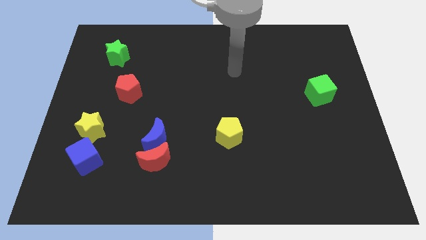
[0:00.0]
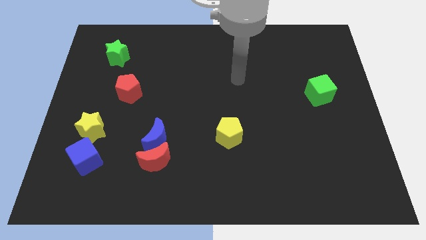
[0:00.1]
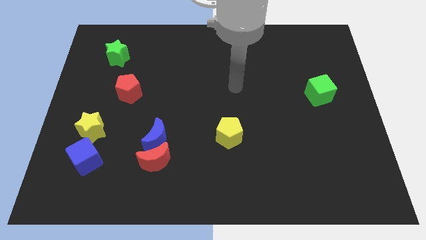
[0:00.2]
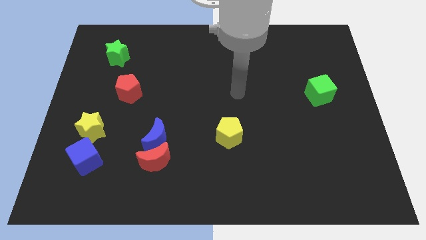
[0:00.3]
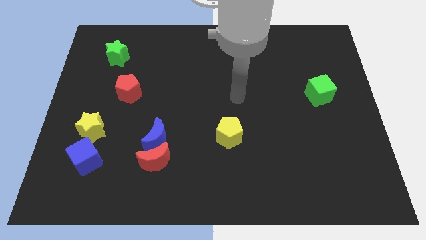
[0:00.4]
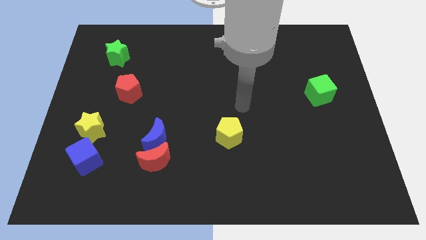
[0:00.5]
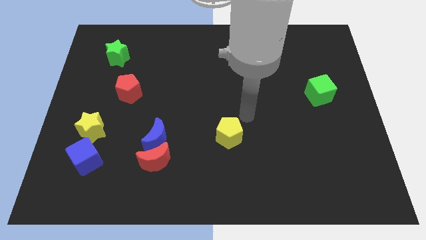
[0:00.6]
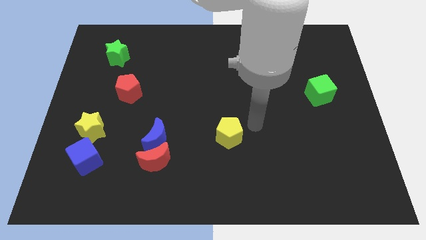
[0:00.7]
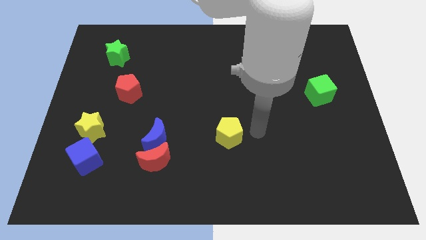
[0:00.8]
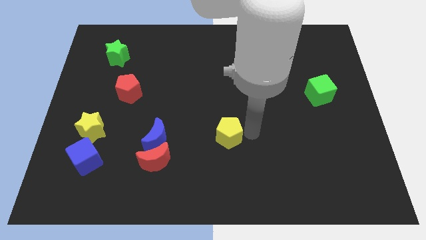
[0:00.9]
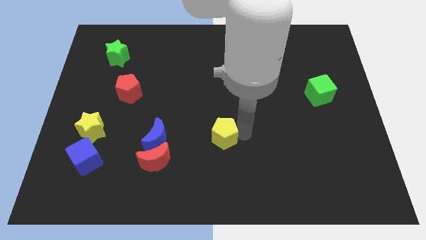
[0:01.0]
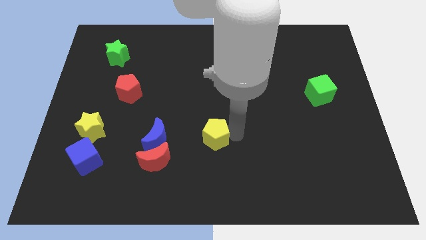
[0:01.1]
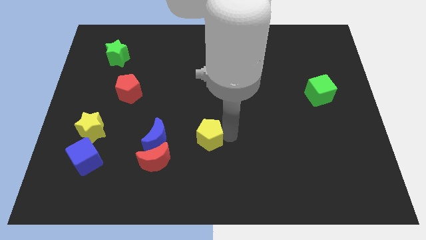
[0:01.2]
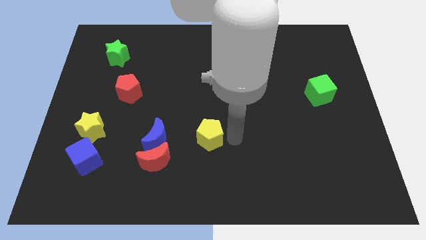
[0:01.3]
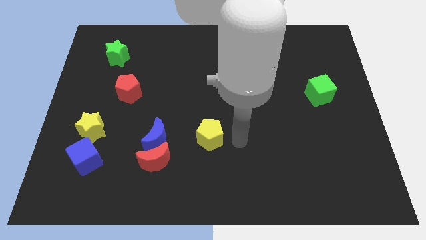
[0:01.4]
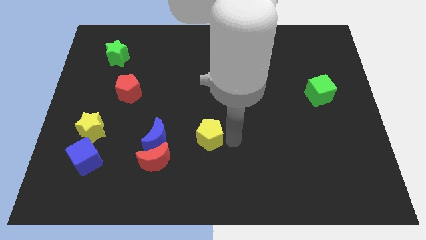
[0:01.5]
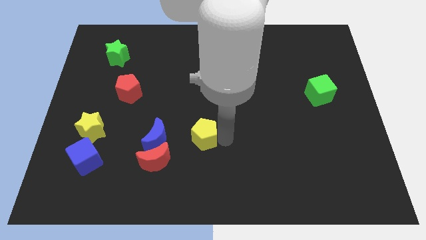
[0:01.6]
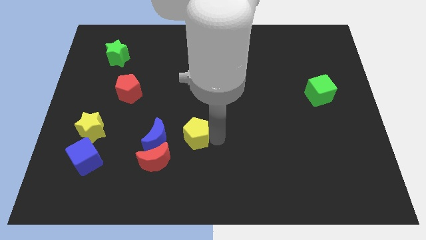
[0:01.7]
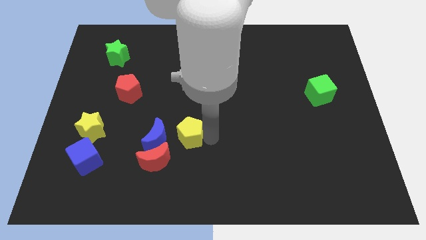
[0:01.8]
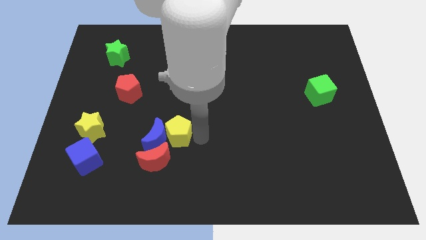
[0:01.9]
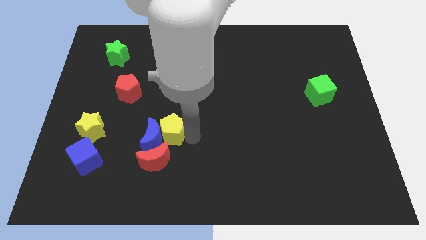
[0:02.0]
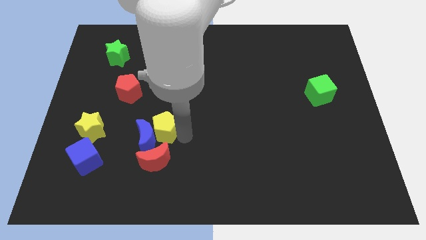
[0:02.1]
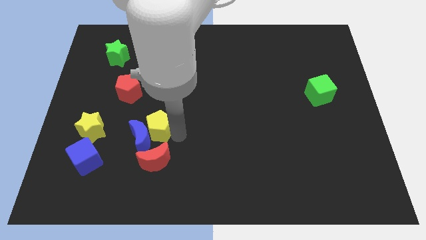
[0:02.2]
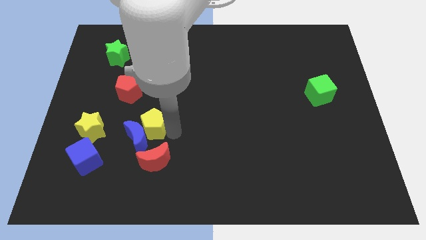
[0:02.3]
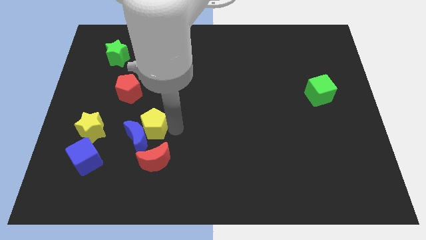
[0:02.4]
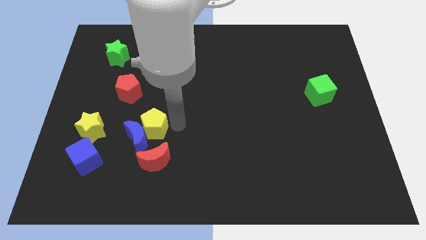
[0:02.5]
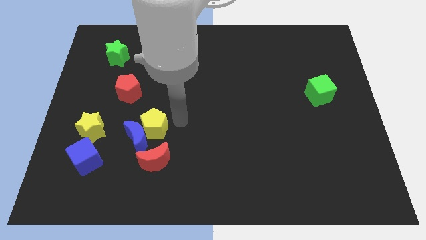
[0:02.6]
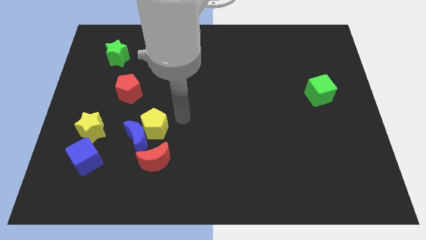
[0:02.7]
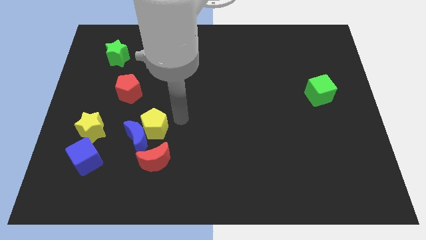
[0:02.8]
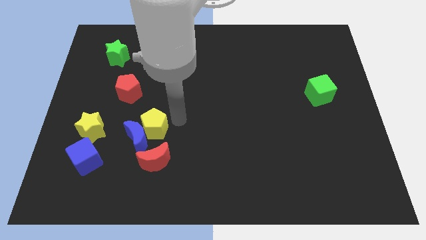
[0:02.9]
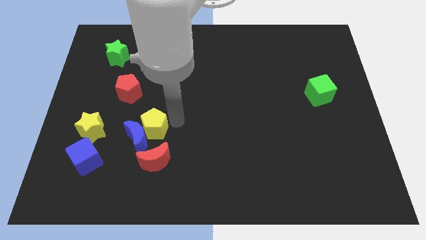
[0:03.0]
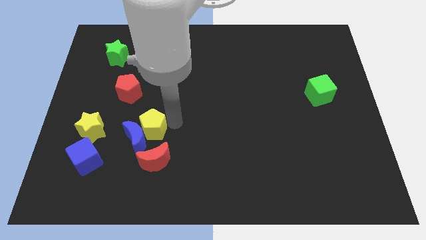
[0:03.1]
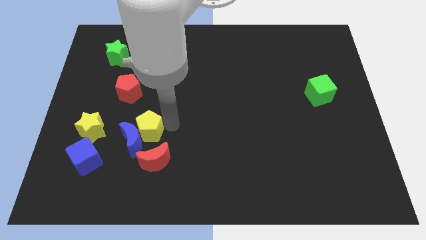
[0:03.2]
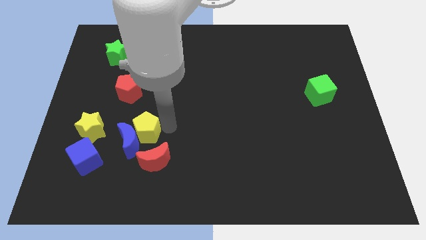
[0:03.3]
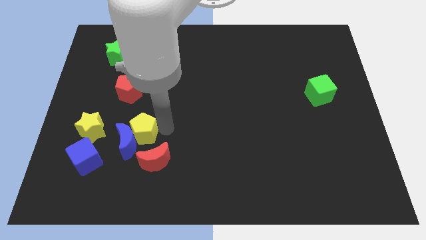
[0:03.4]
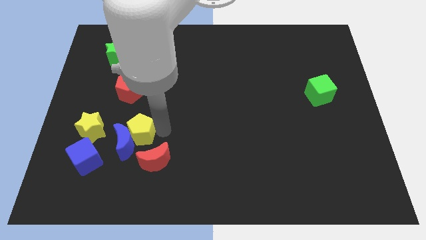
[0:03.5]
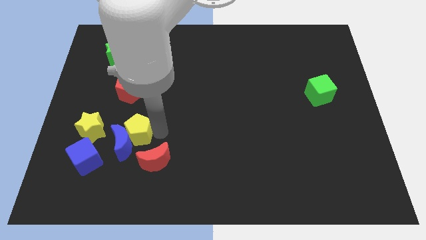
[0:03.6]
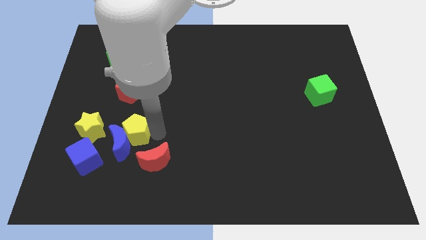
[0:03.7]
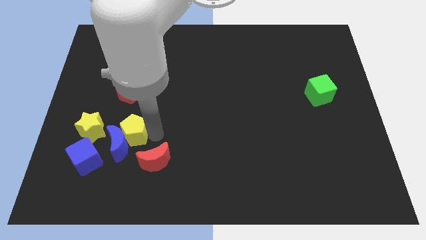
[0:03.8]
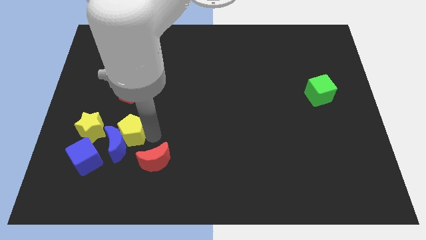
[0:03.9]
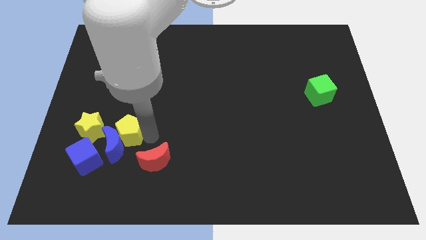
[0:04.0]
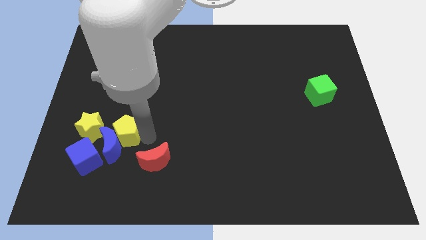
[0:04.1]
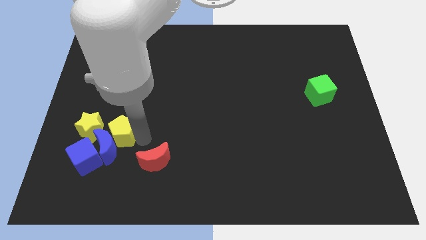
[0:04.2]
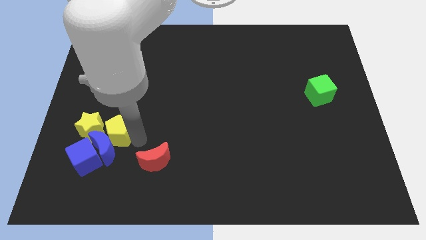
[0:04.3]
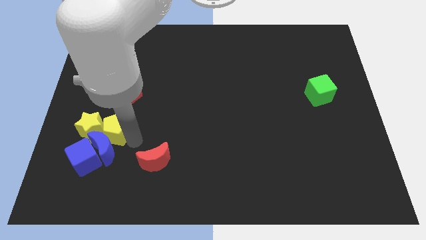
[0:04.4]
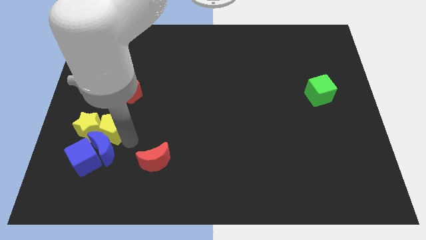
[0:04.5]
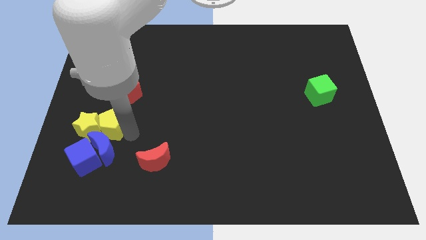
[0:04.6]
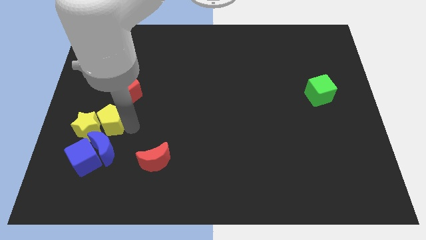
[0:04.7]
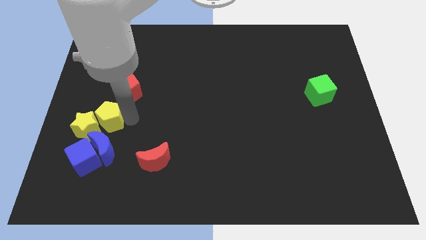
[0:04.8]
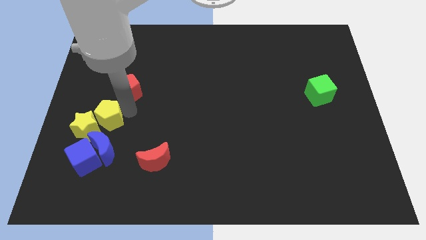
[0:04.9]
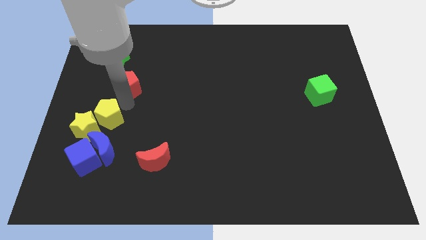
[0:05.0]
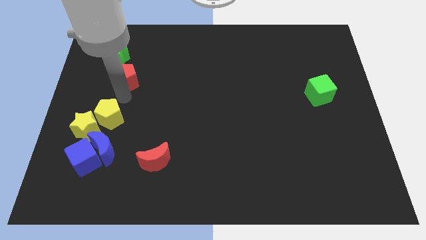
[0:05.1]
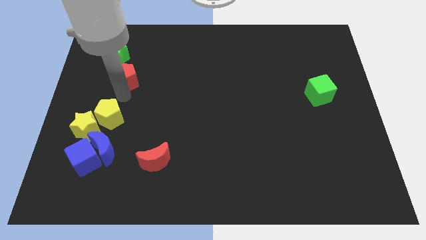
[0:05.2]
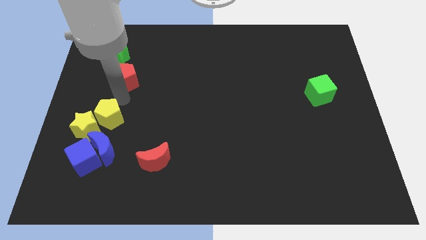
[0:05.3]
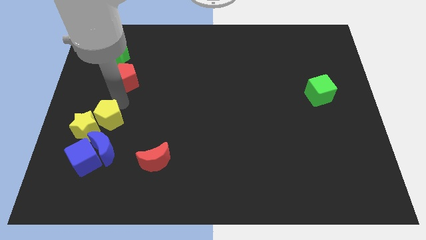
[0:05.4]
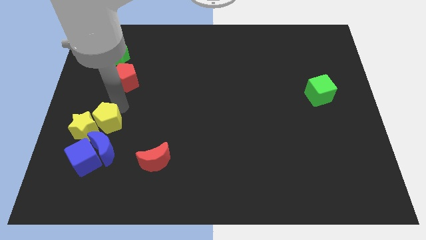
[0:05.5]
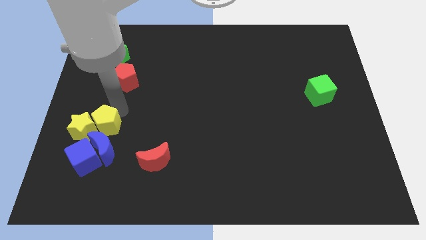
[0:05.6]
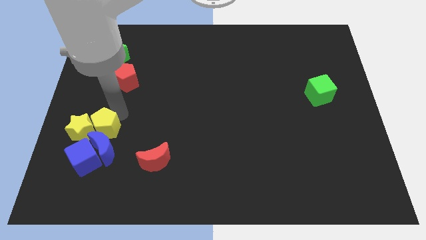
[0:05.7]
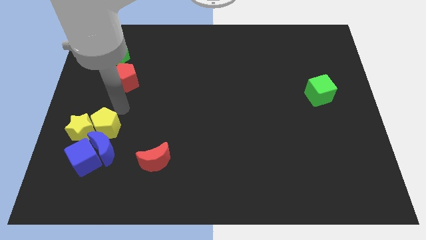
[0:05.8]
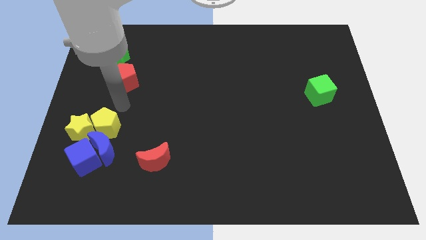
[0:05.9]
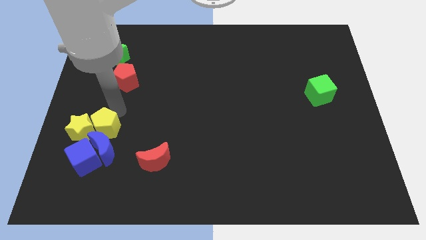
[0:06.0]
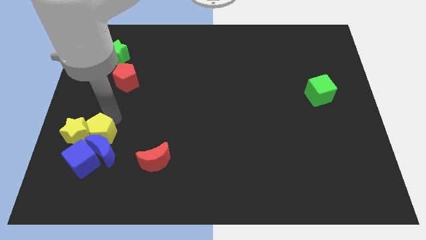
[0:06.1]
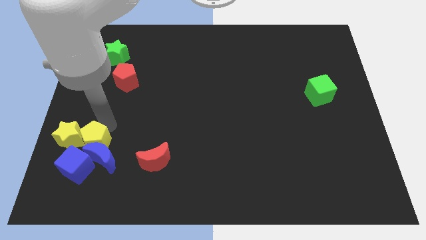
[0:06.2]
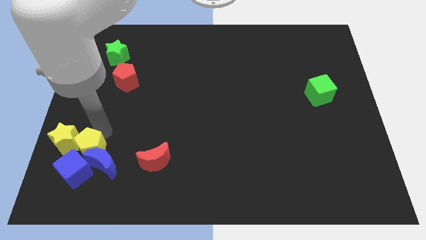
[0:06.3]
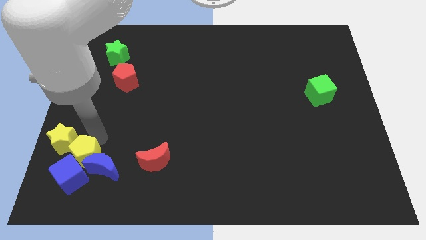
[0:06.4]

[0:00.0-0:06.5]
put the yellow pentagon next to the blue cube

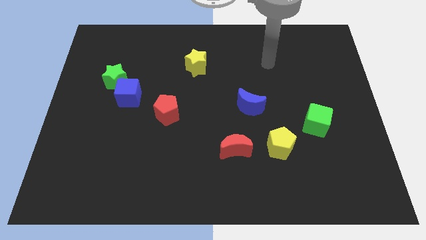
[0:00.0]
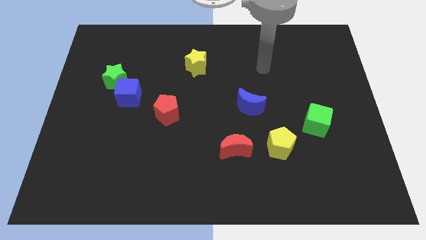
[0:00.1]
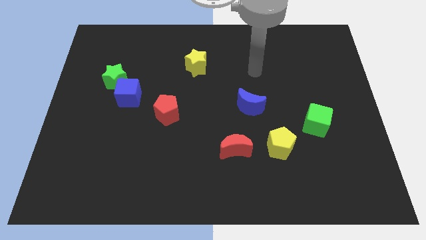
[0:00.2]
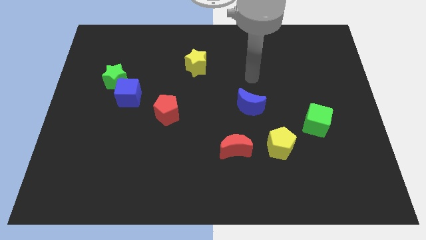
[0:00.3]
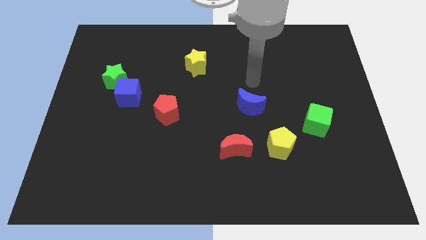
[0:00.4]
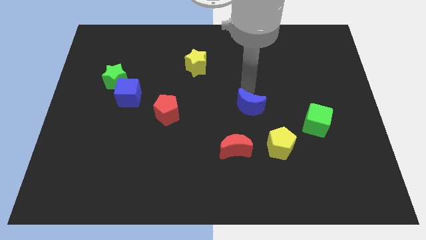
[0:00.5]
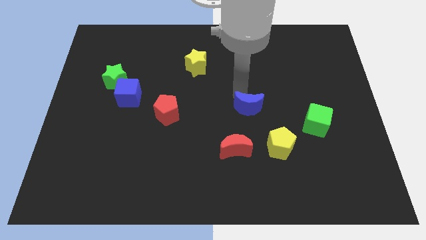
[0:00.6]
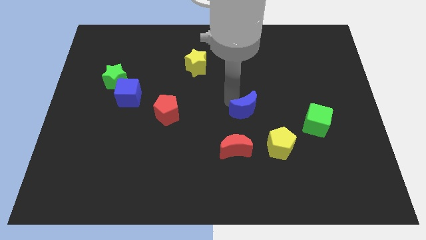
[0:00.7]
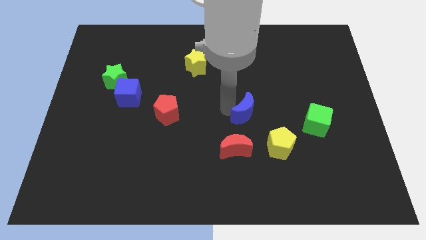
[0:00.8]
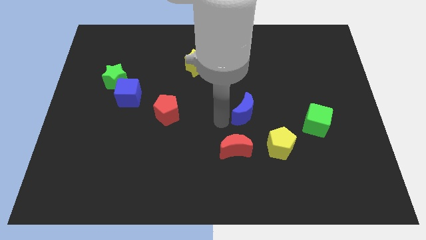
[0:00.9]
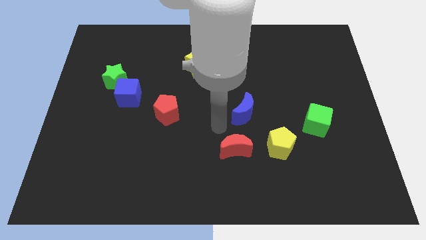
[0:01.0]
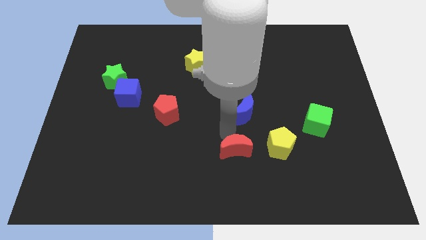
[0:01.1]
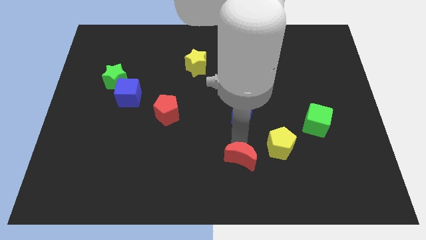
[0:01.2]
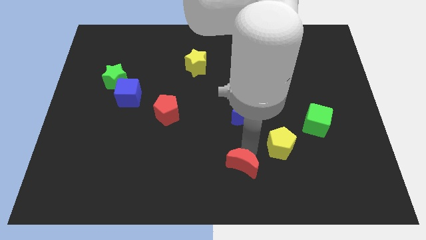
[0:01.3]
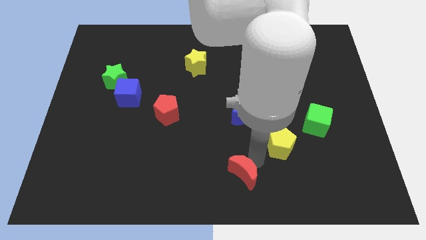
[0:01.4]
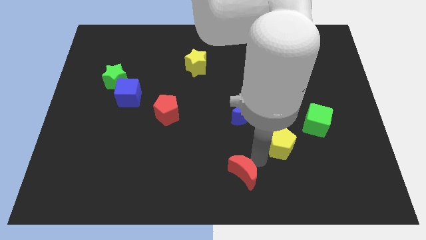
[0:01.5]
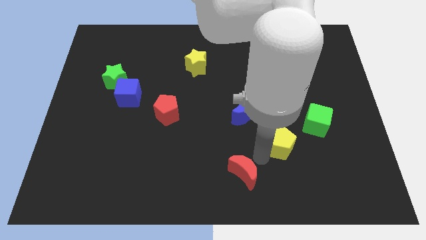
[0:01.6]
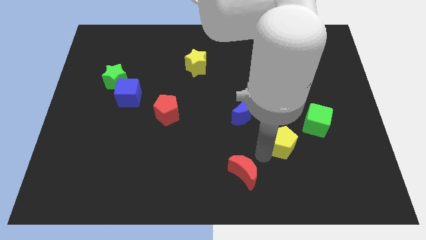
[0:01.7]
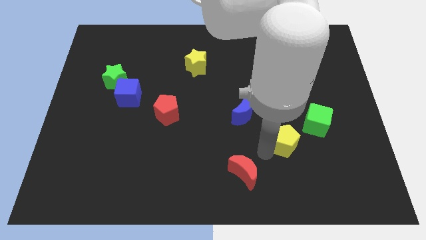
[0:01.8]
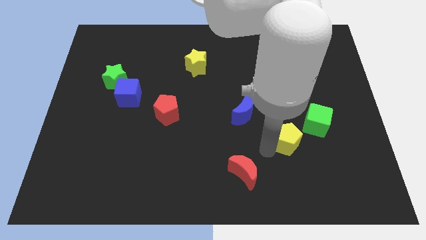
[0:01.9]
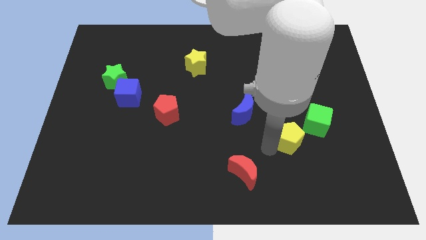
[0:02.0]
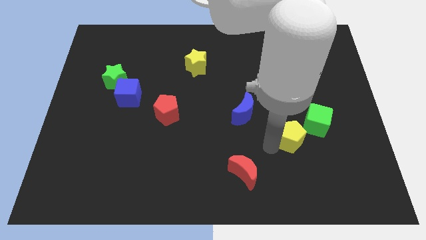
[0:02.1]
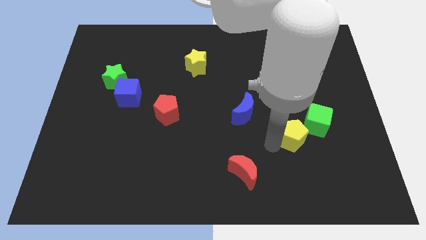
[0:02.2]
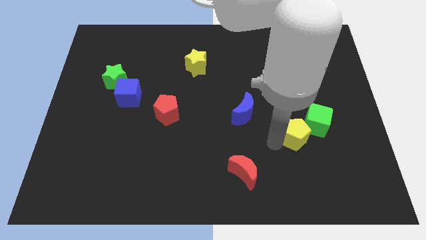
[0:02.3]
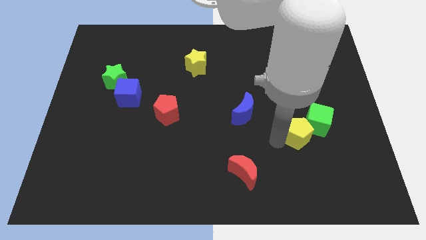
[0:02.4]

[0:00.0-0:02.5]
push the yellow pentagon close to the green cube
